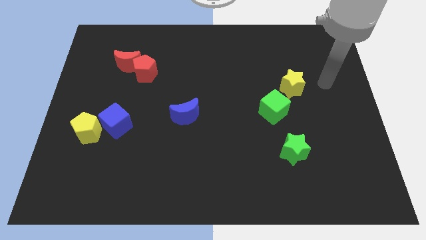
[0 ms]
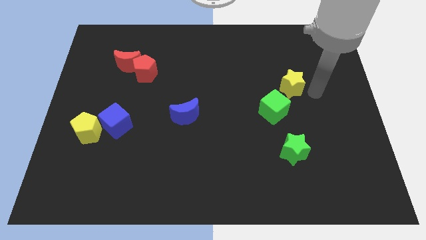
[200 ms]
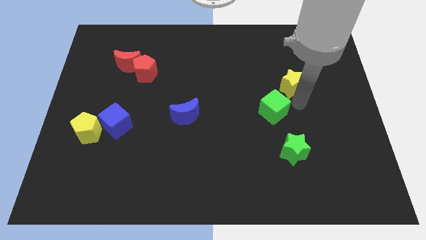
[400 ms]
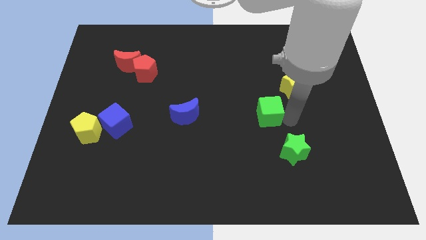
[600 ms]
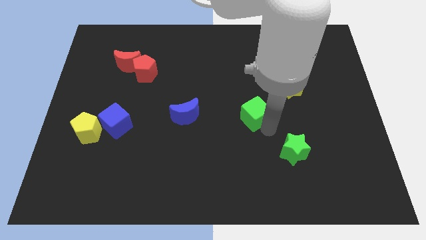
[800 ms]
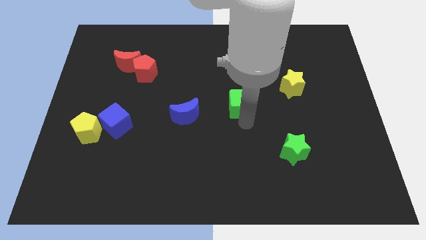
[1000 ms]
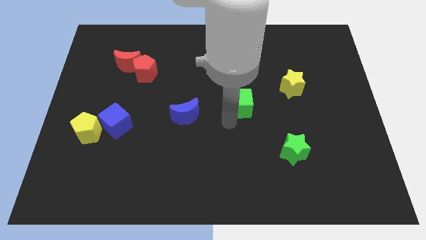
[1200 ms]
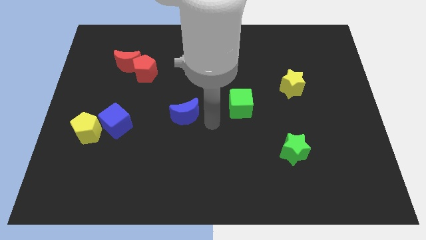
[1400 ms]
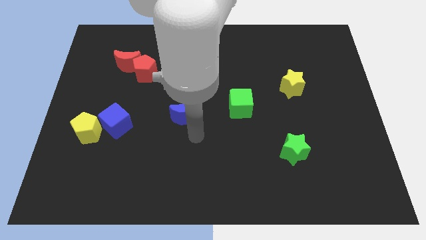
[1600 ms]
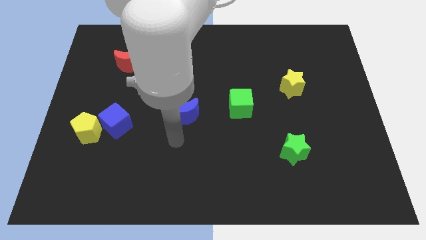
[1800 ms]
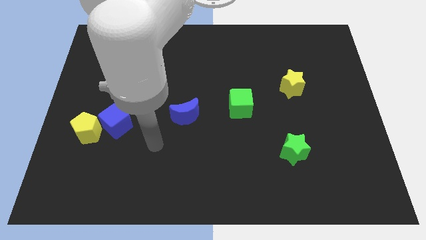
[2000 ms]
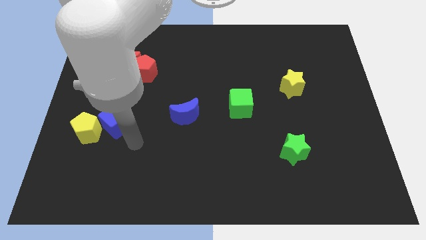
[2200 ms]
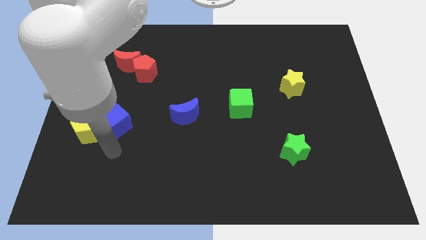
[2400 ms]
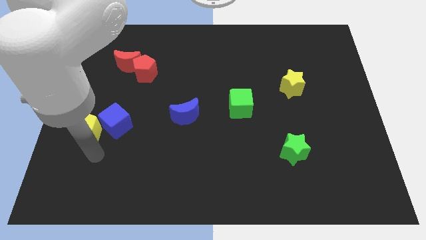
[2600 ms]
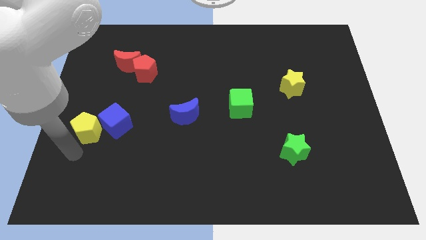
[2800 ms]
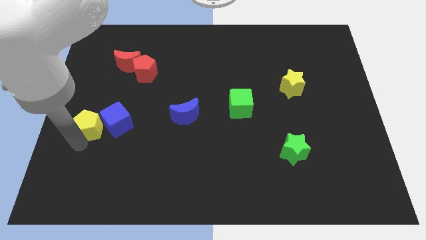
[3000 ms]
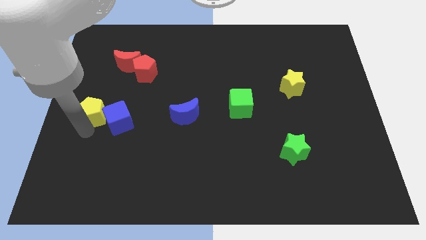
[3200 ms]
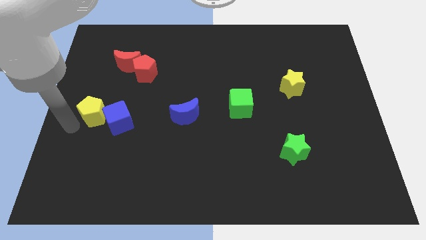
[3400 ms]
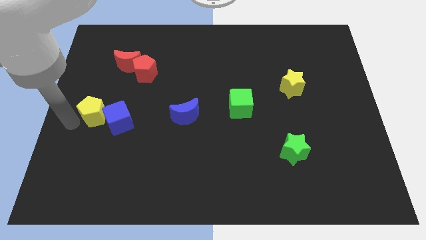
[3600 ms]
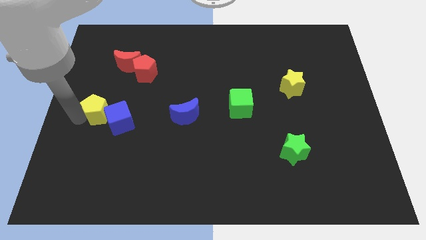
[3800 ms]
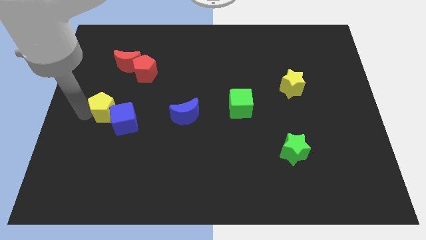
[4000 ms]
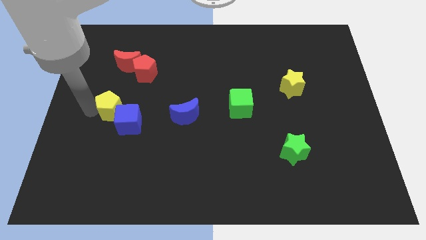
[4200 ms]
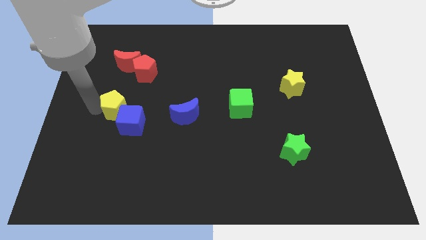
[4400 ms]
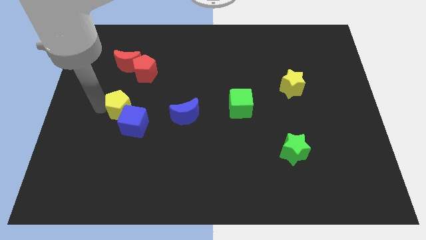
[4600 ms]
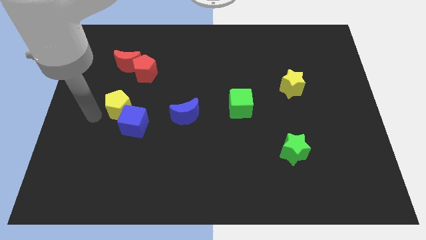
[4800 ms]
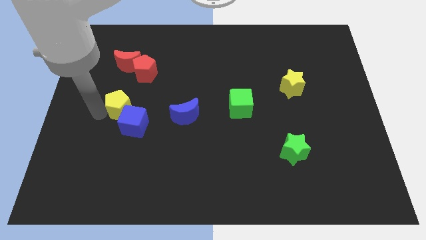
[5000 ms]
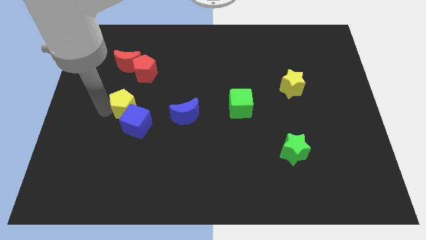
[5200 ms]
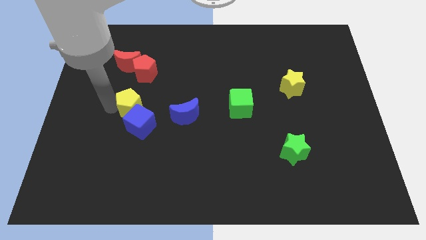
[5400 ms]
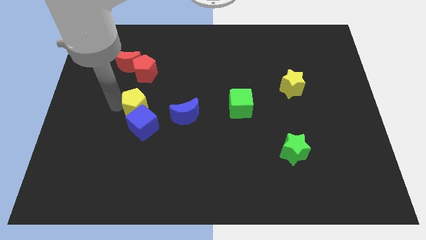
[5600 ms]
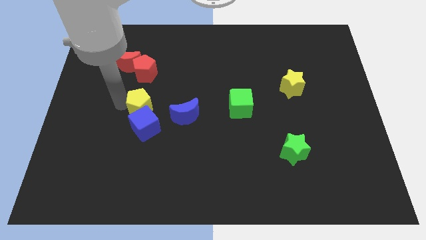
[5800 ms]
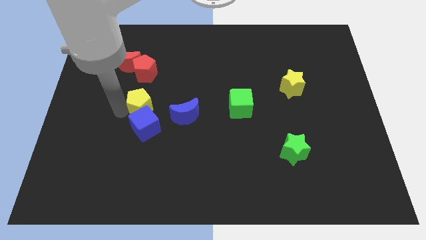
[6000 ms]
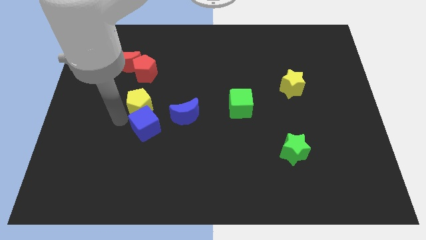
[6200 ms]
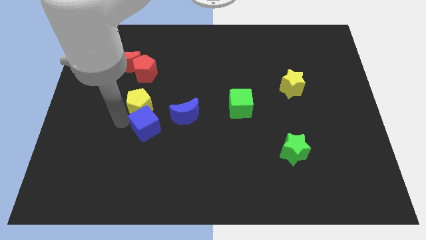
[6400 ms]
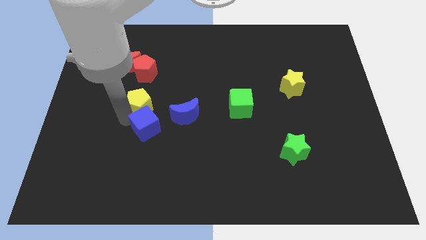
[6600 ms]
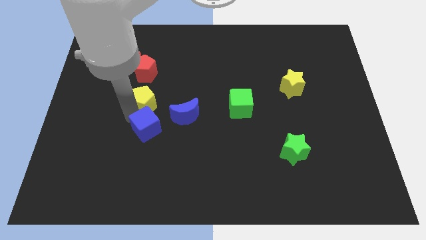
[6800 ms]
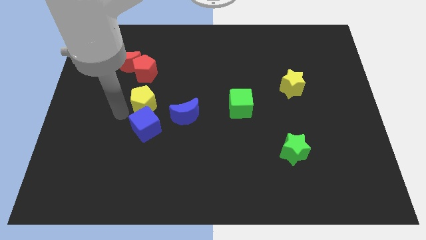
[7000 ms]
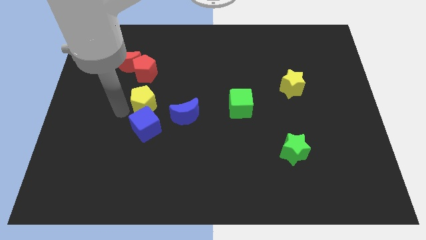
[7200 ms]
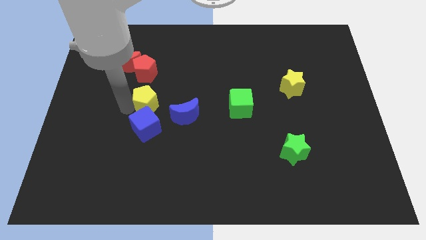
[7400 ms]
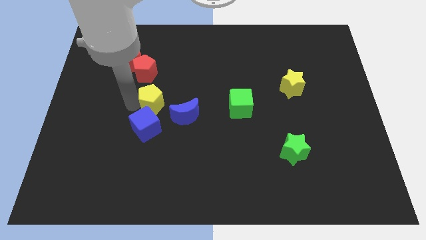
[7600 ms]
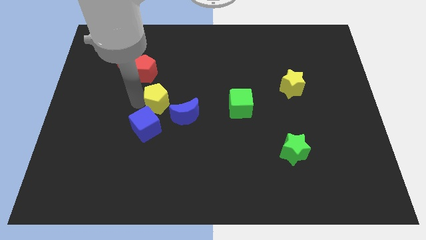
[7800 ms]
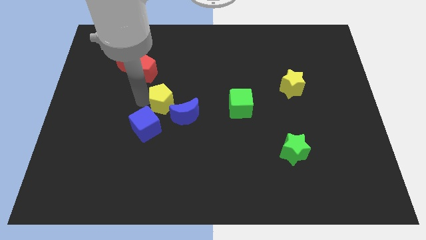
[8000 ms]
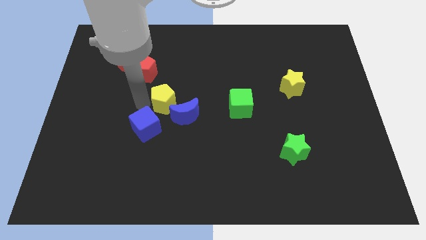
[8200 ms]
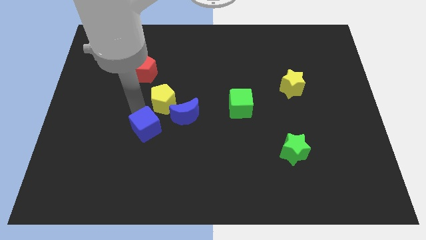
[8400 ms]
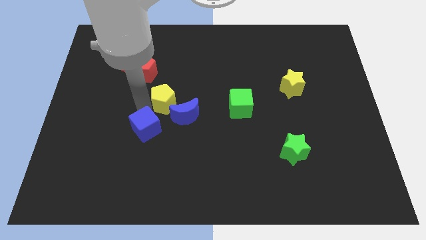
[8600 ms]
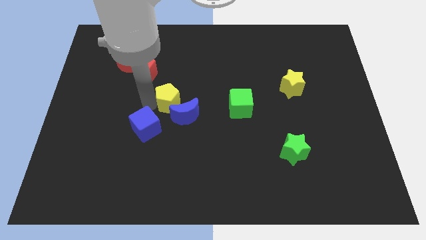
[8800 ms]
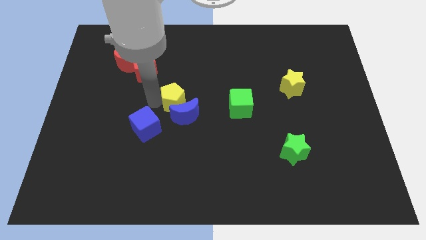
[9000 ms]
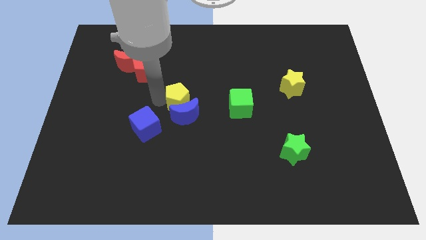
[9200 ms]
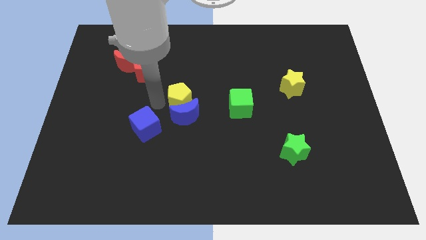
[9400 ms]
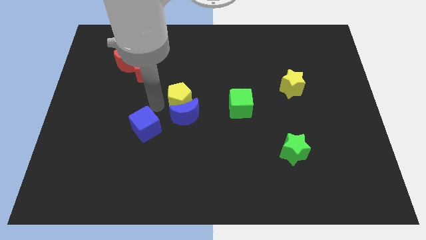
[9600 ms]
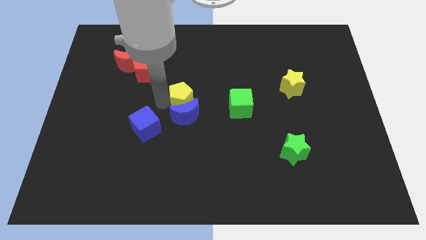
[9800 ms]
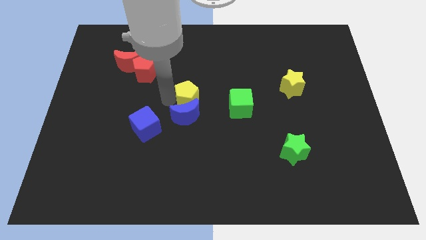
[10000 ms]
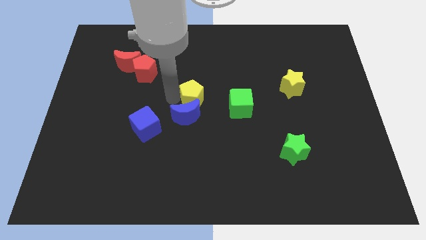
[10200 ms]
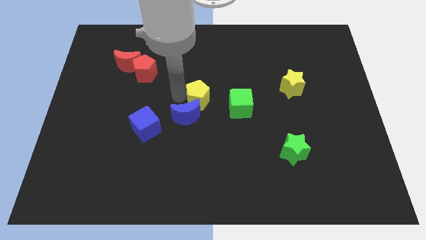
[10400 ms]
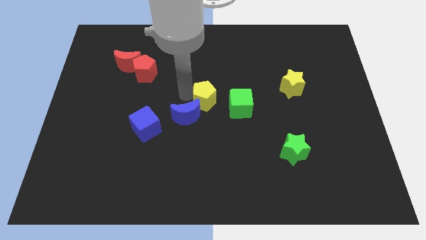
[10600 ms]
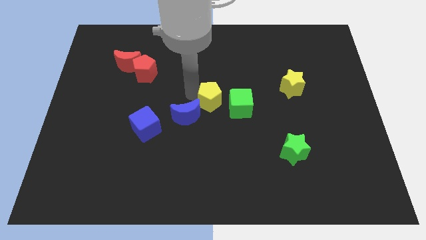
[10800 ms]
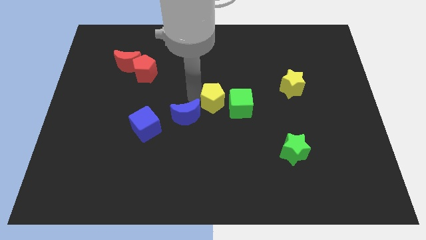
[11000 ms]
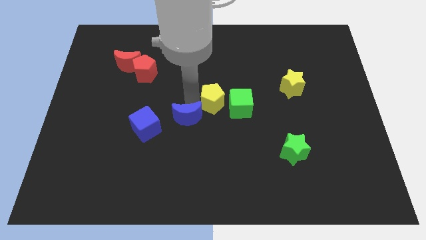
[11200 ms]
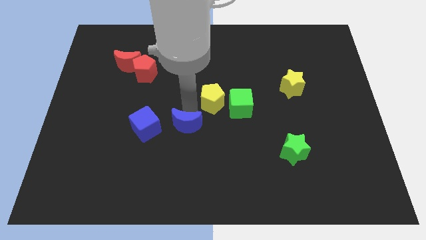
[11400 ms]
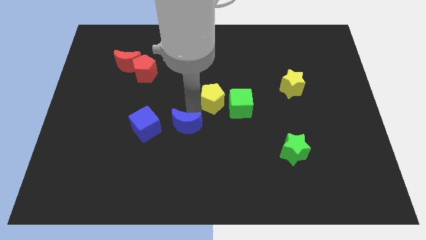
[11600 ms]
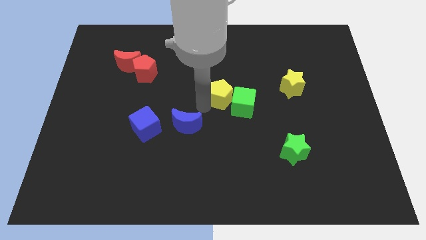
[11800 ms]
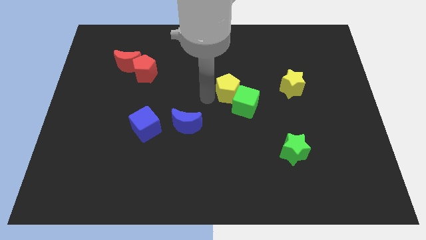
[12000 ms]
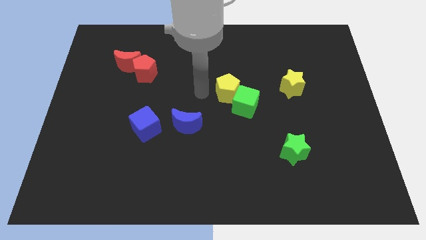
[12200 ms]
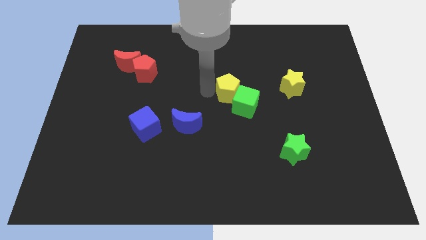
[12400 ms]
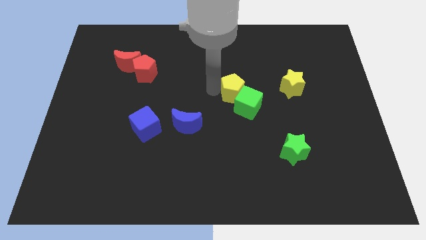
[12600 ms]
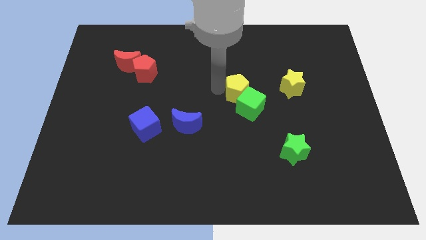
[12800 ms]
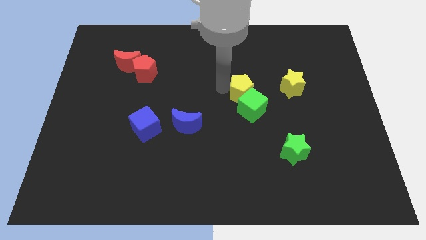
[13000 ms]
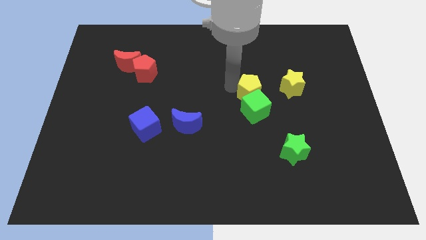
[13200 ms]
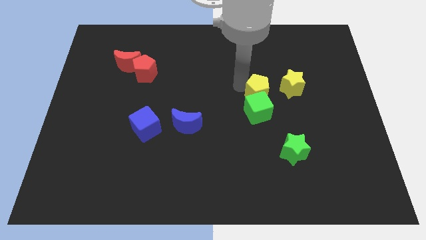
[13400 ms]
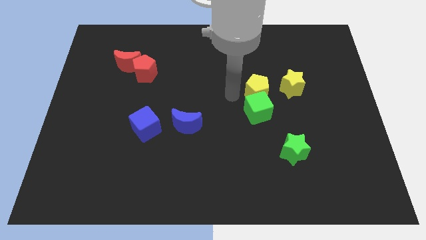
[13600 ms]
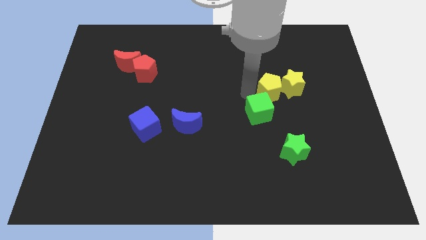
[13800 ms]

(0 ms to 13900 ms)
put the yellow pentagon close to the yellow star

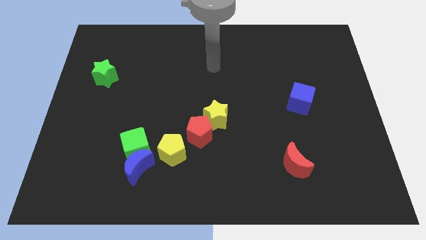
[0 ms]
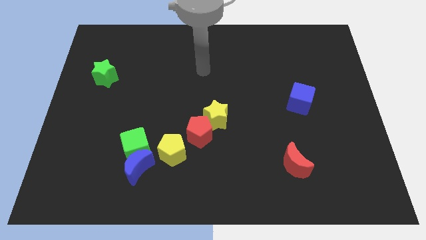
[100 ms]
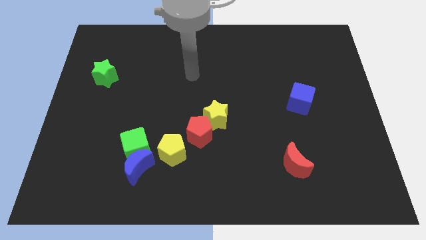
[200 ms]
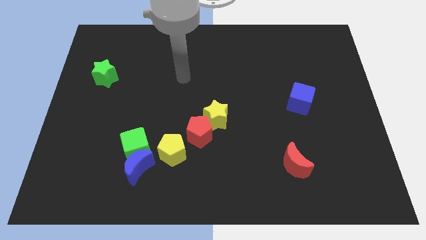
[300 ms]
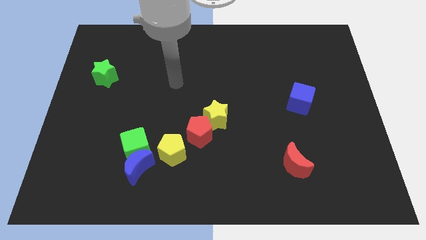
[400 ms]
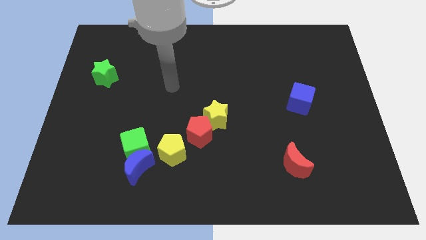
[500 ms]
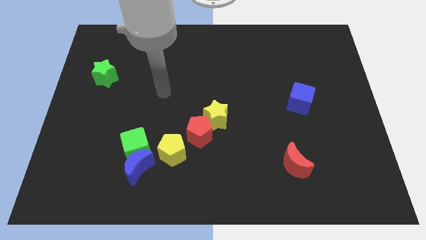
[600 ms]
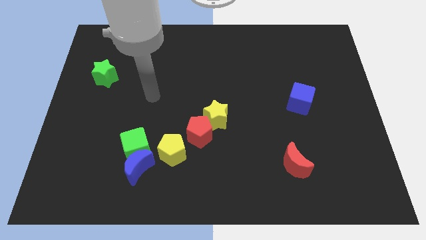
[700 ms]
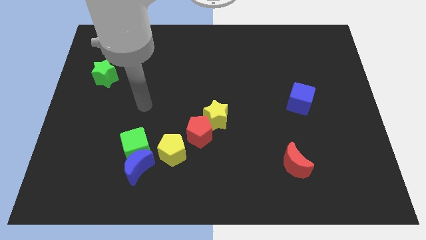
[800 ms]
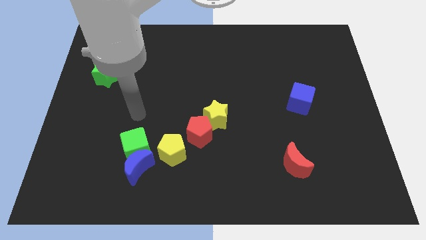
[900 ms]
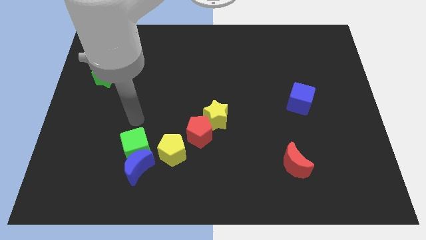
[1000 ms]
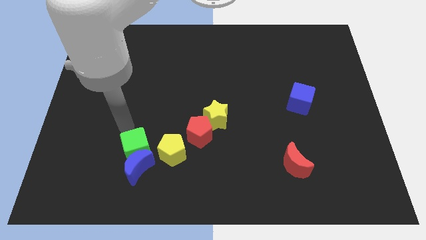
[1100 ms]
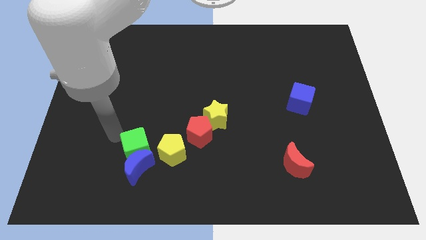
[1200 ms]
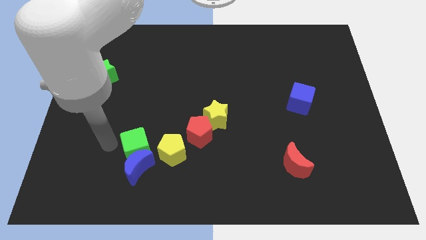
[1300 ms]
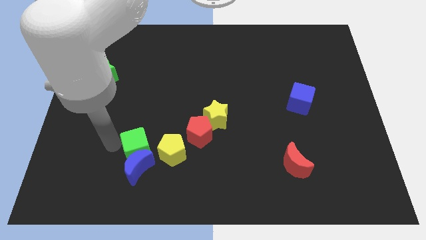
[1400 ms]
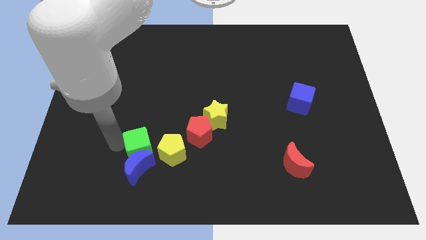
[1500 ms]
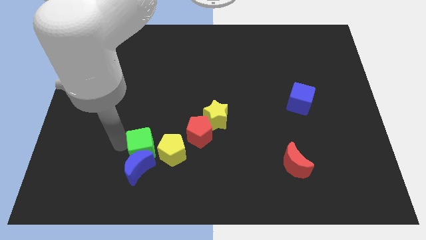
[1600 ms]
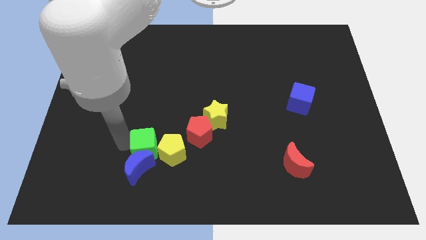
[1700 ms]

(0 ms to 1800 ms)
move the green cube to the yellow pentagon
